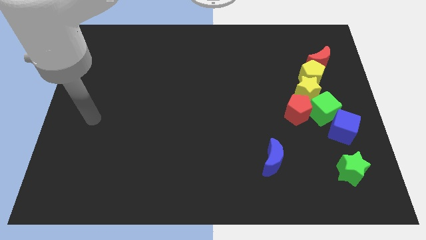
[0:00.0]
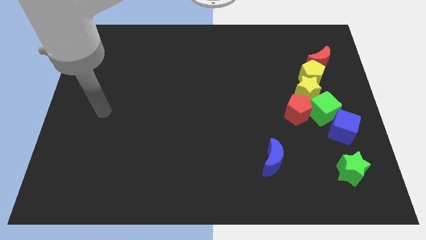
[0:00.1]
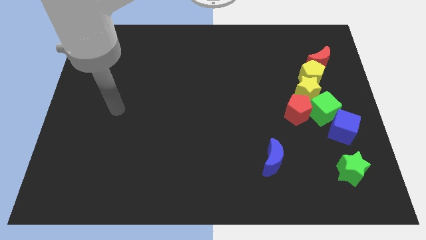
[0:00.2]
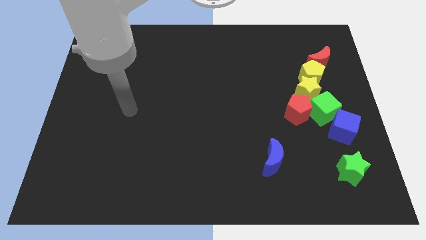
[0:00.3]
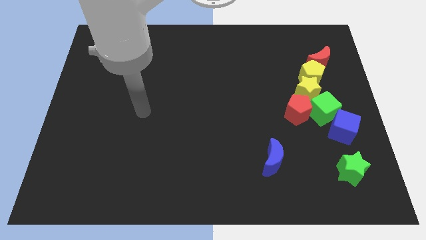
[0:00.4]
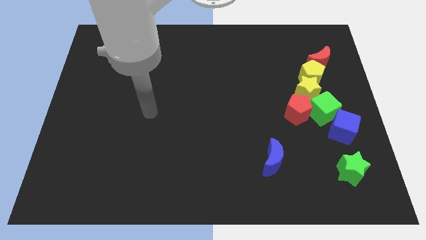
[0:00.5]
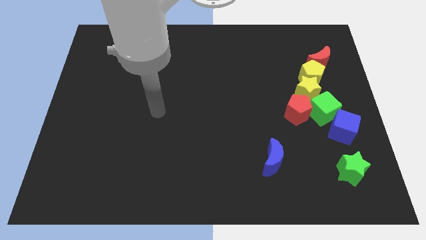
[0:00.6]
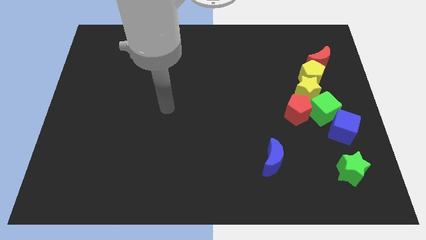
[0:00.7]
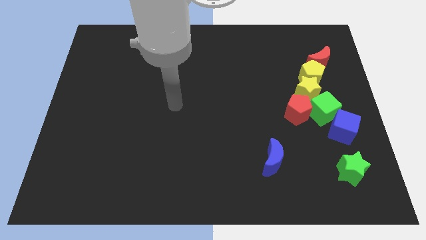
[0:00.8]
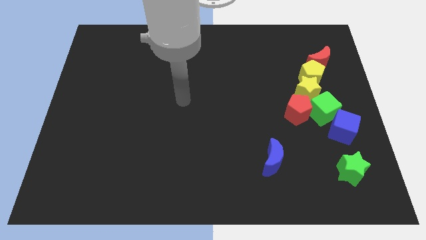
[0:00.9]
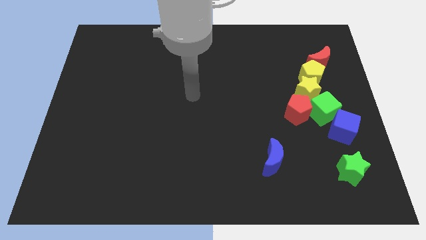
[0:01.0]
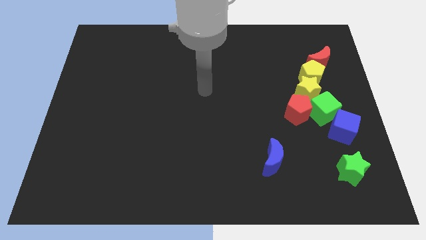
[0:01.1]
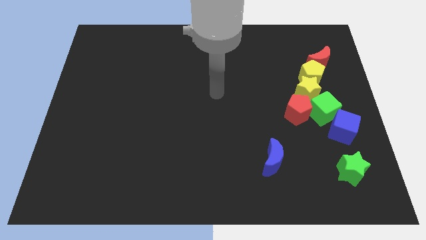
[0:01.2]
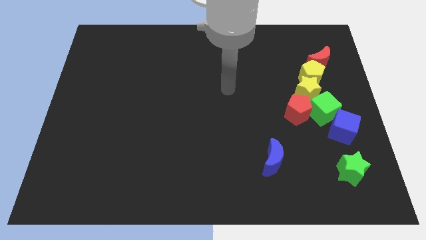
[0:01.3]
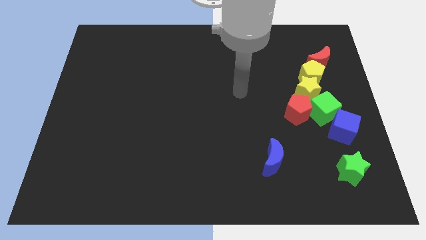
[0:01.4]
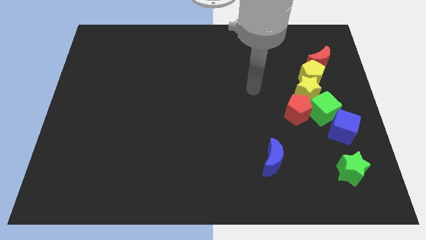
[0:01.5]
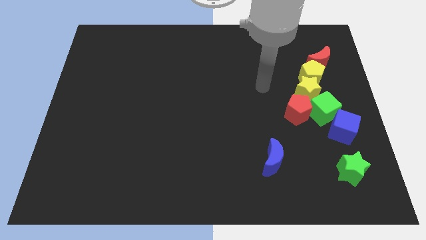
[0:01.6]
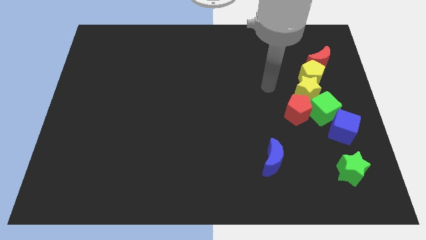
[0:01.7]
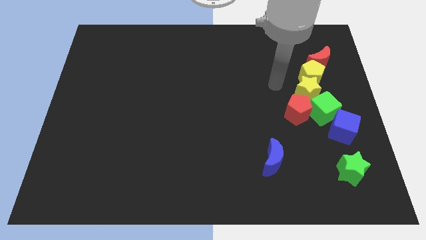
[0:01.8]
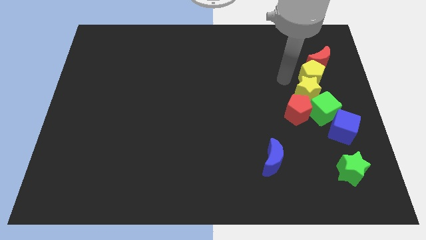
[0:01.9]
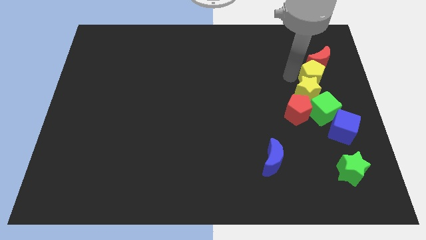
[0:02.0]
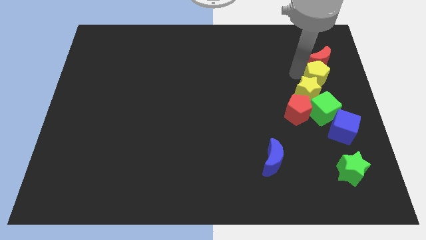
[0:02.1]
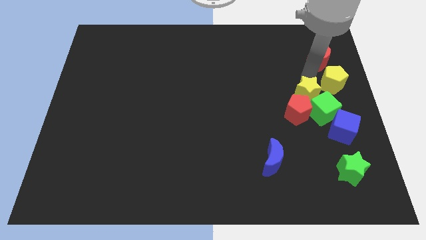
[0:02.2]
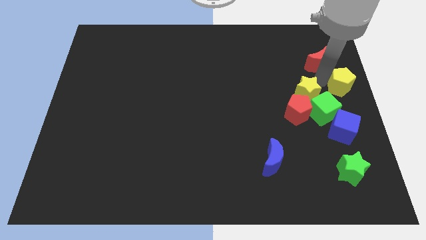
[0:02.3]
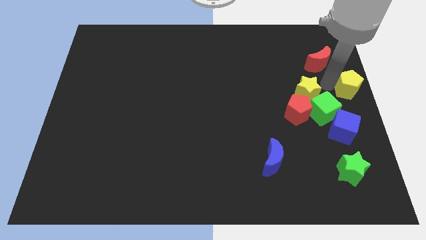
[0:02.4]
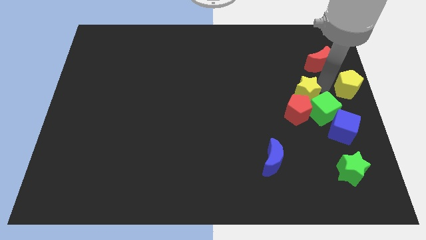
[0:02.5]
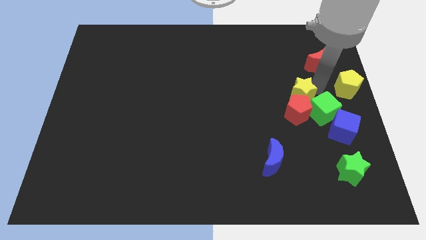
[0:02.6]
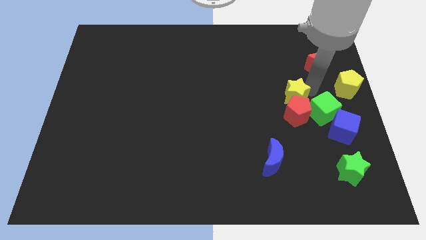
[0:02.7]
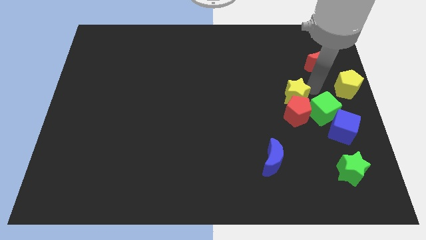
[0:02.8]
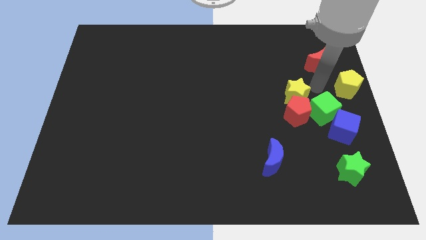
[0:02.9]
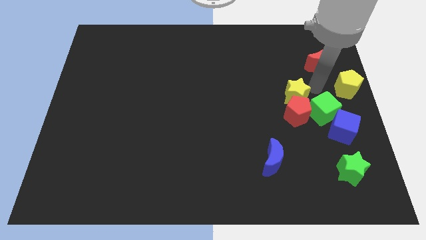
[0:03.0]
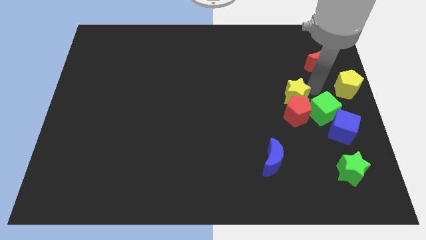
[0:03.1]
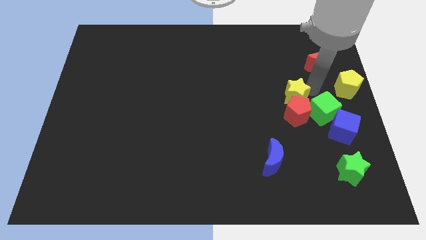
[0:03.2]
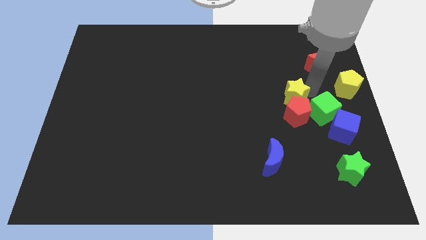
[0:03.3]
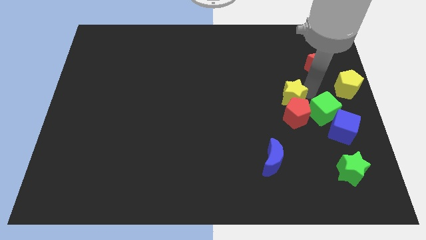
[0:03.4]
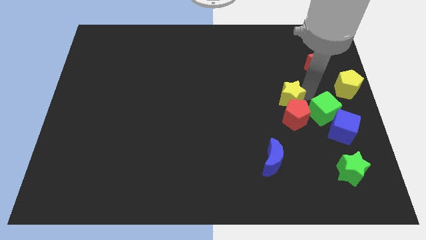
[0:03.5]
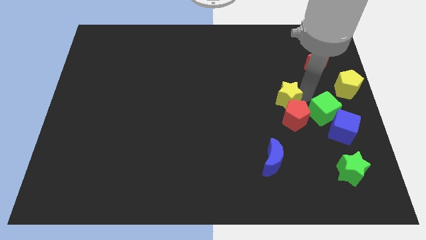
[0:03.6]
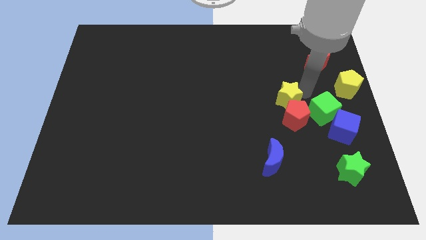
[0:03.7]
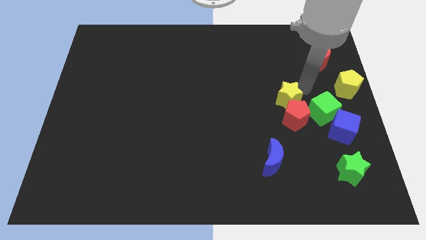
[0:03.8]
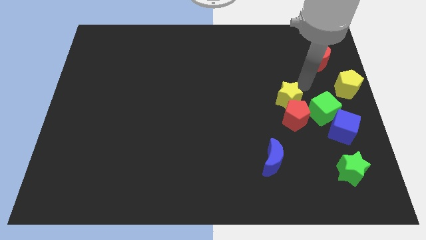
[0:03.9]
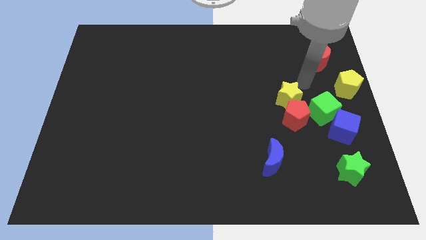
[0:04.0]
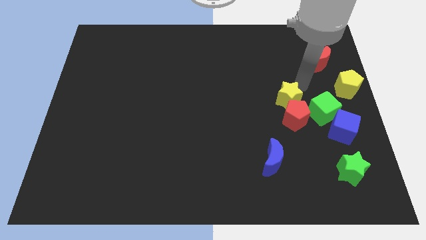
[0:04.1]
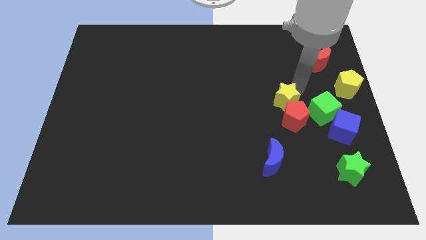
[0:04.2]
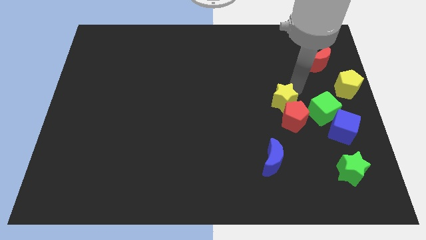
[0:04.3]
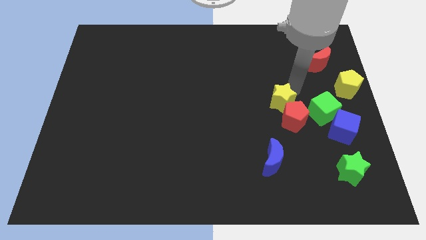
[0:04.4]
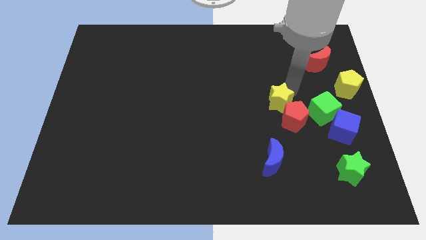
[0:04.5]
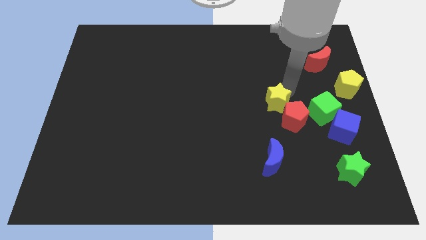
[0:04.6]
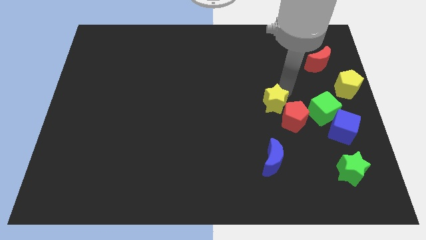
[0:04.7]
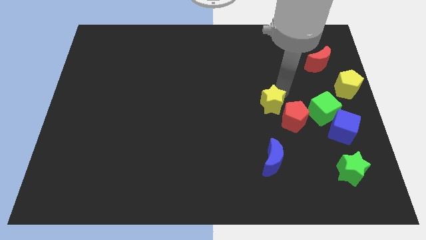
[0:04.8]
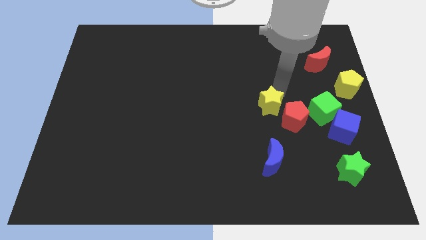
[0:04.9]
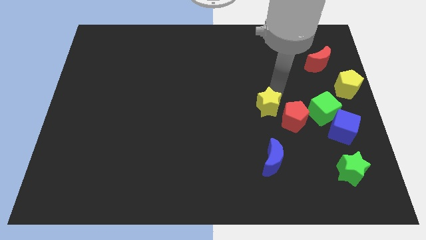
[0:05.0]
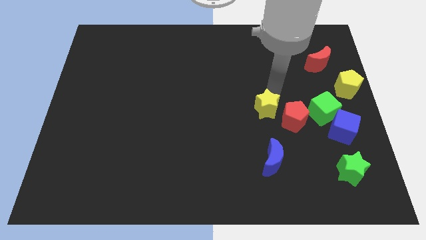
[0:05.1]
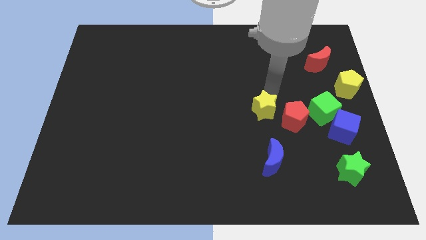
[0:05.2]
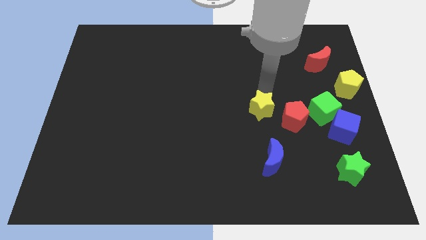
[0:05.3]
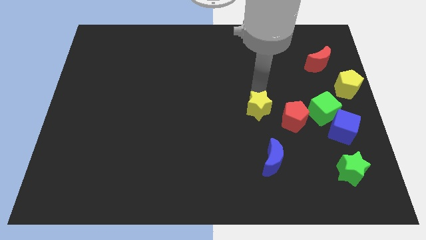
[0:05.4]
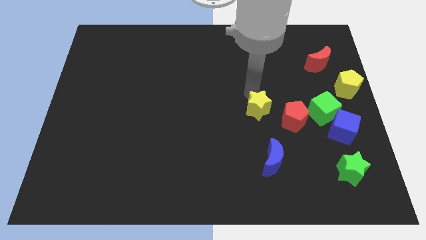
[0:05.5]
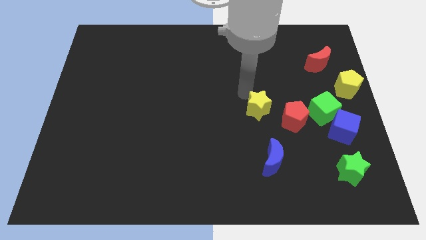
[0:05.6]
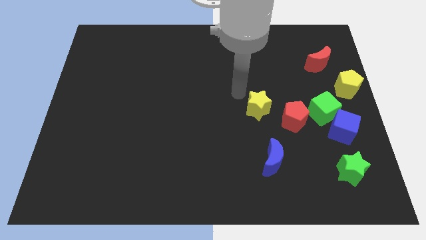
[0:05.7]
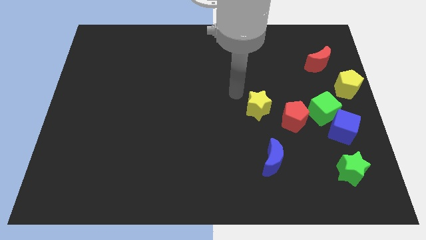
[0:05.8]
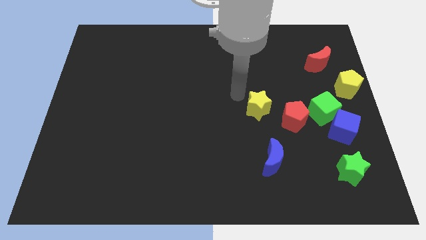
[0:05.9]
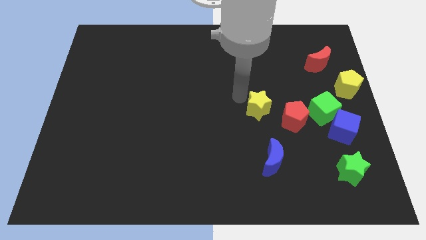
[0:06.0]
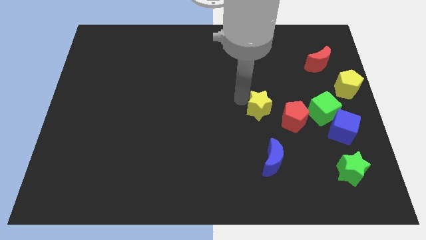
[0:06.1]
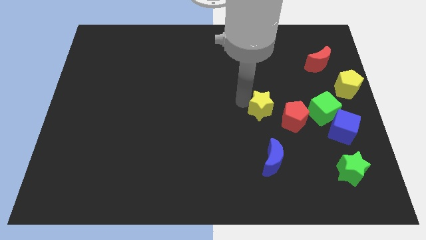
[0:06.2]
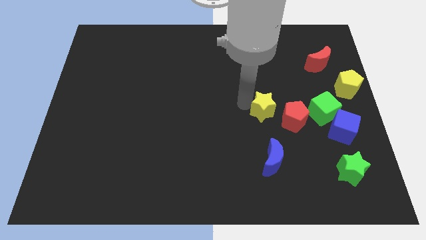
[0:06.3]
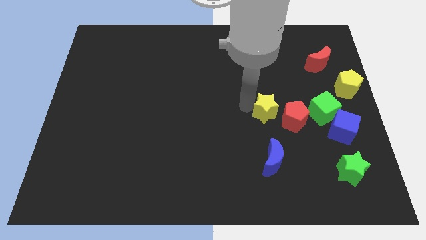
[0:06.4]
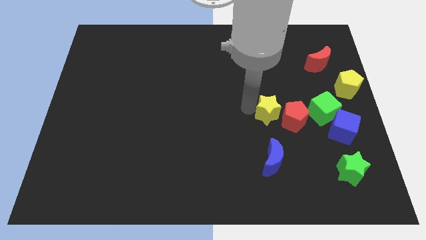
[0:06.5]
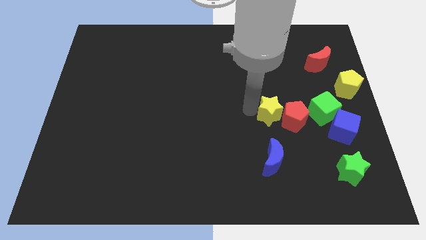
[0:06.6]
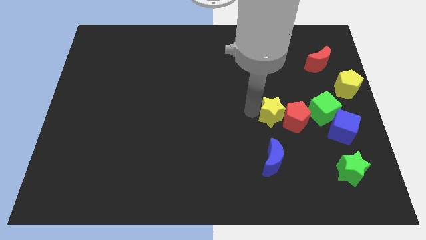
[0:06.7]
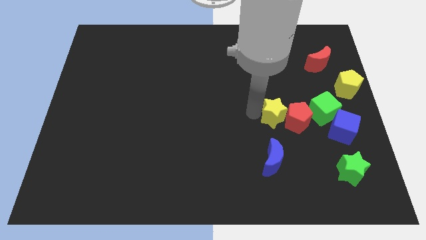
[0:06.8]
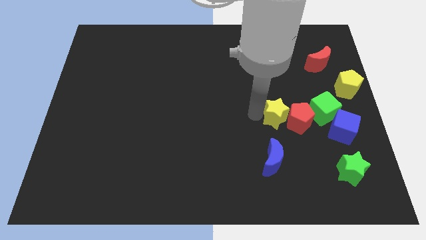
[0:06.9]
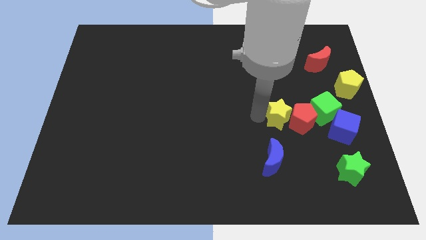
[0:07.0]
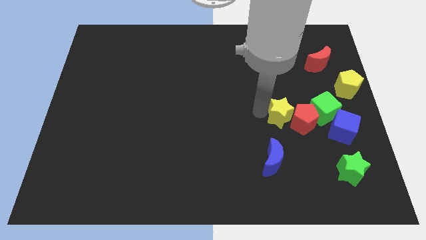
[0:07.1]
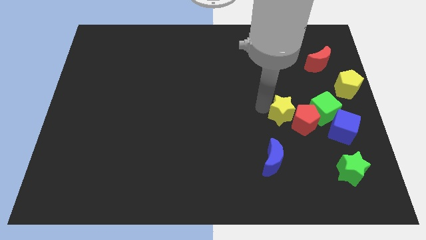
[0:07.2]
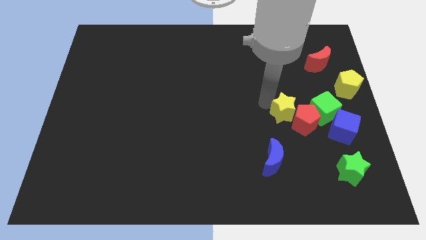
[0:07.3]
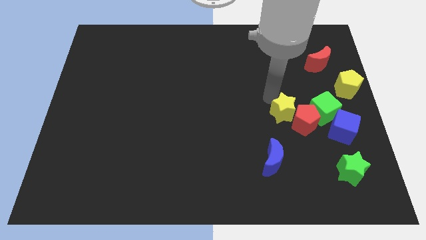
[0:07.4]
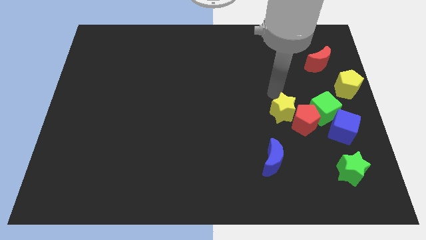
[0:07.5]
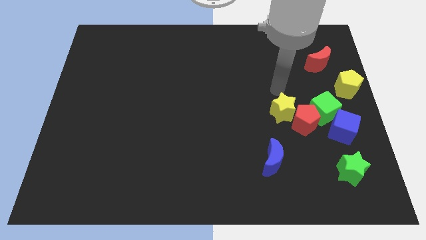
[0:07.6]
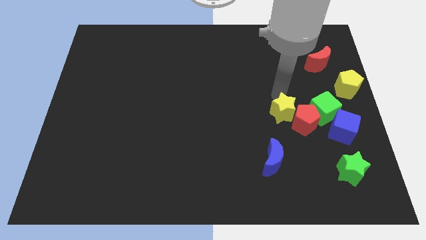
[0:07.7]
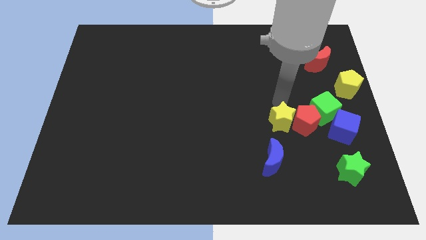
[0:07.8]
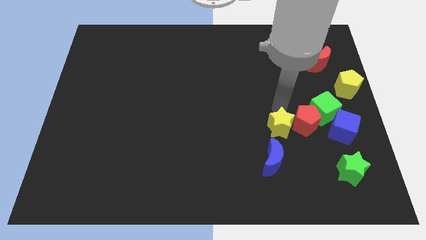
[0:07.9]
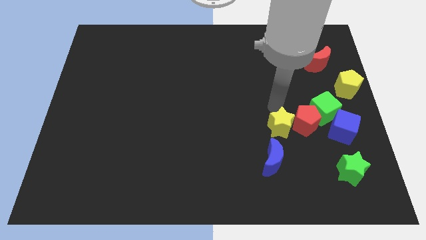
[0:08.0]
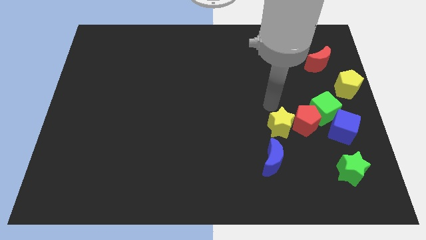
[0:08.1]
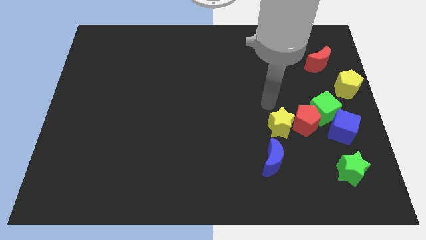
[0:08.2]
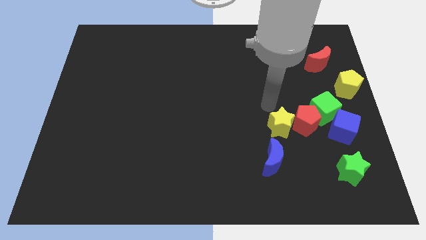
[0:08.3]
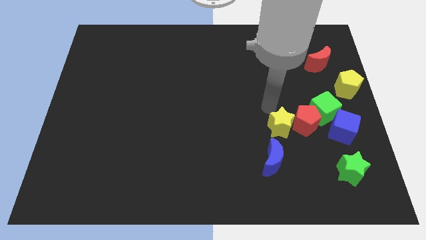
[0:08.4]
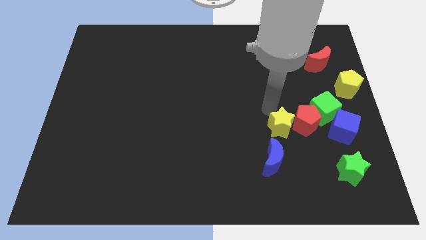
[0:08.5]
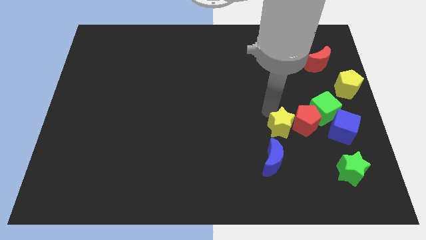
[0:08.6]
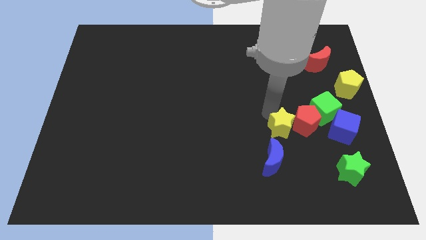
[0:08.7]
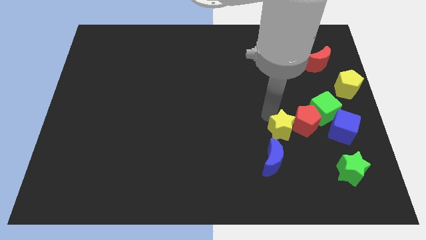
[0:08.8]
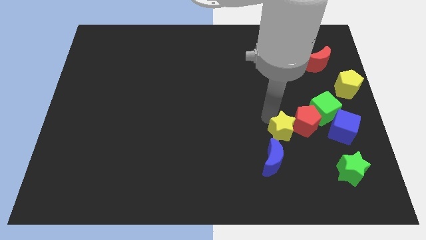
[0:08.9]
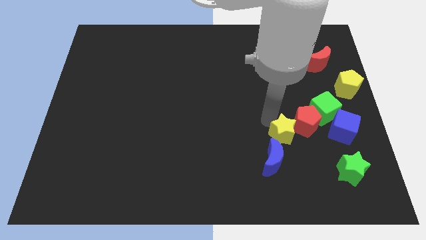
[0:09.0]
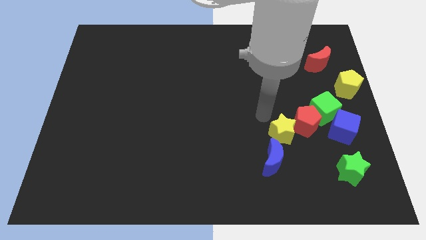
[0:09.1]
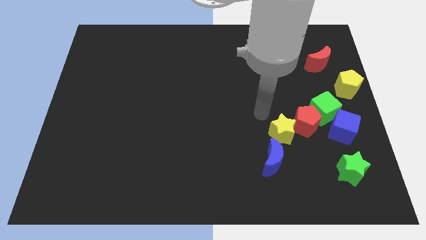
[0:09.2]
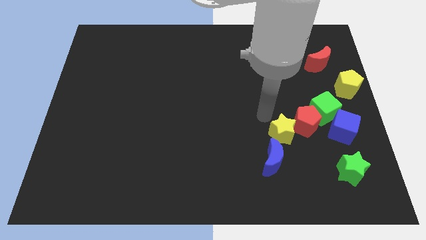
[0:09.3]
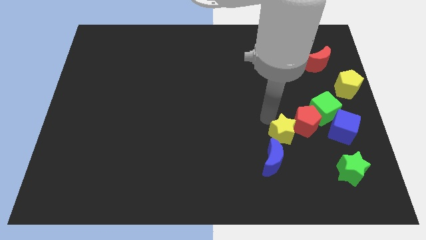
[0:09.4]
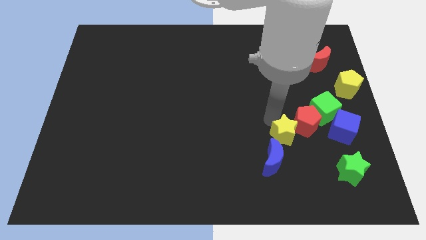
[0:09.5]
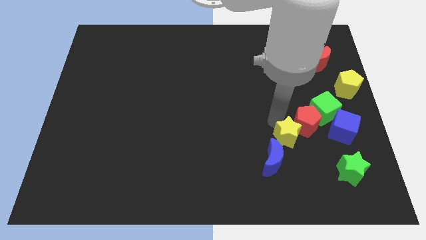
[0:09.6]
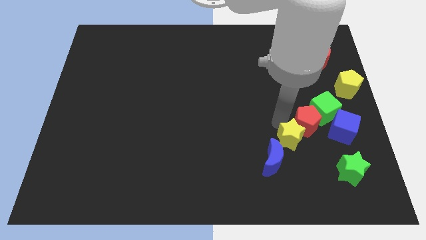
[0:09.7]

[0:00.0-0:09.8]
slide the yellow star to the bottom side of the red pentagon
